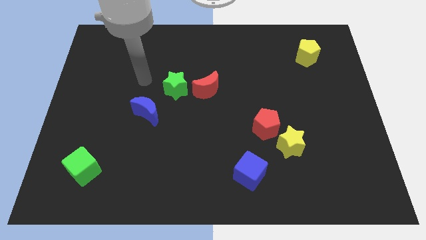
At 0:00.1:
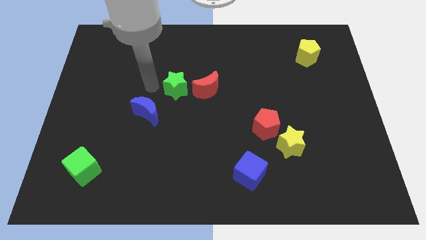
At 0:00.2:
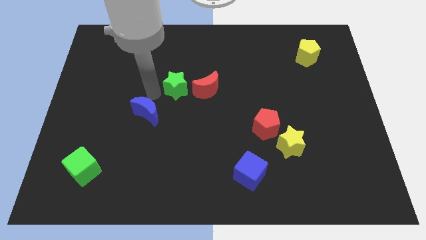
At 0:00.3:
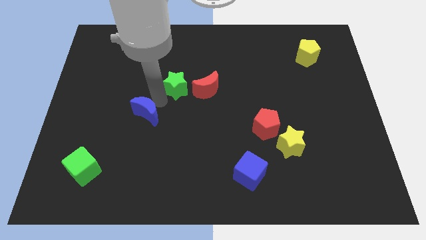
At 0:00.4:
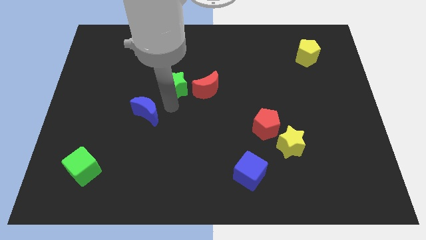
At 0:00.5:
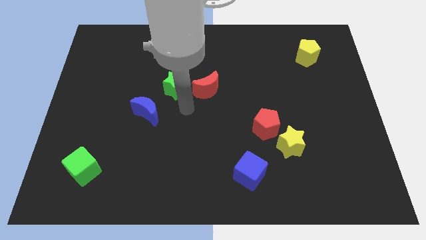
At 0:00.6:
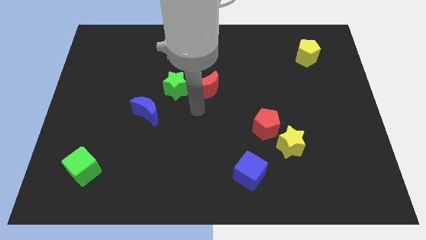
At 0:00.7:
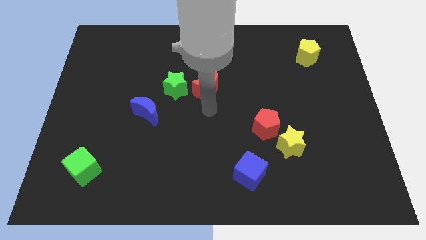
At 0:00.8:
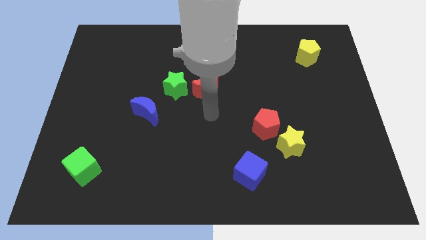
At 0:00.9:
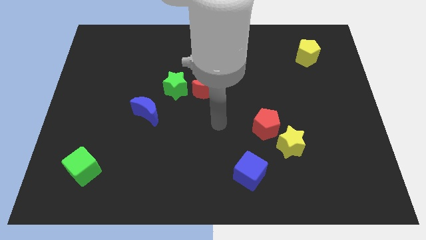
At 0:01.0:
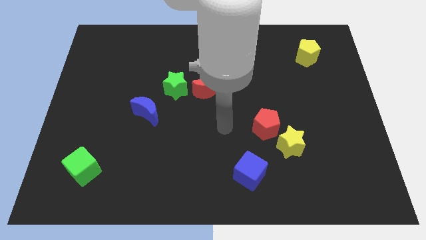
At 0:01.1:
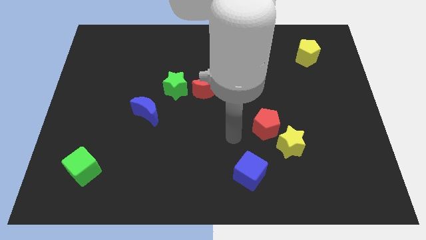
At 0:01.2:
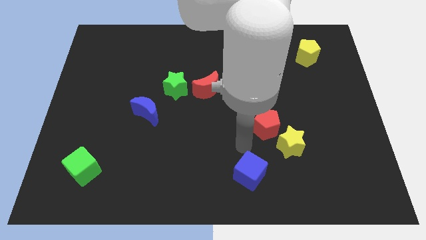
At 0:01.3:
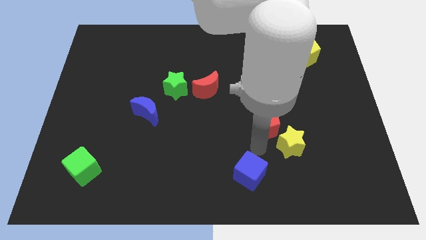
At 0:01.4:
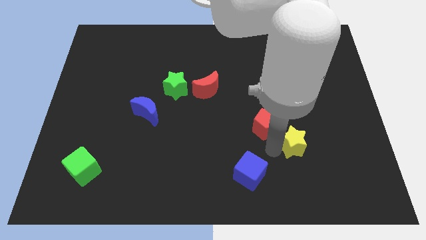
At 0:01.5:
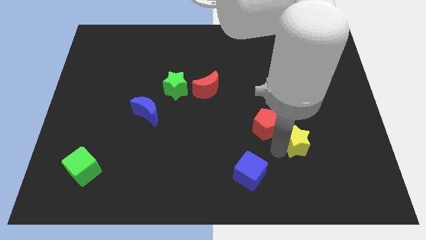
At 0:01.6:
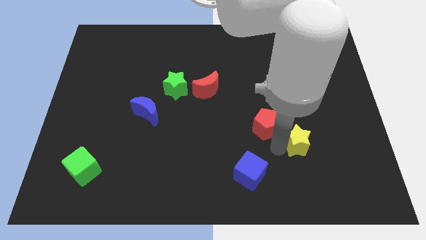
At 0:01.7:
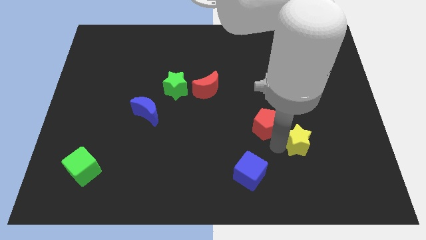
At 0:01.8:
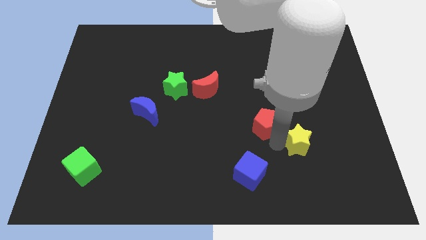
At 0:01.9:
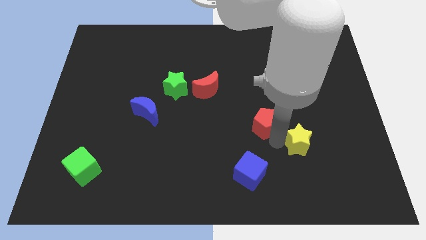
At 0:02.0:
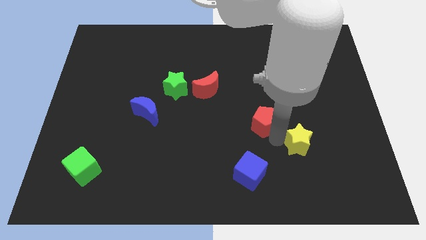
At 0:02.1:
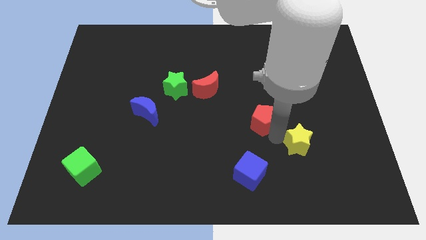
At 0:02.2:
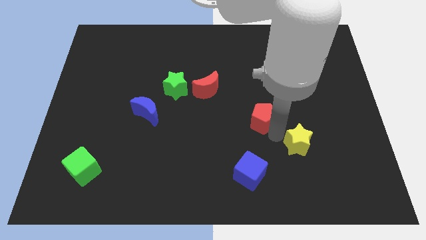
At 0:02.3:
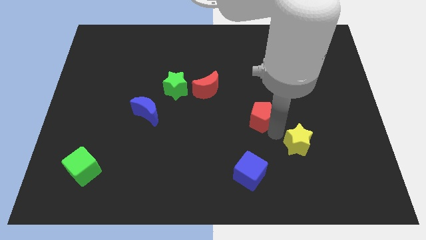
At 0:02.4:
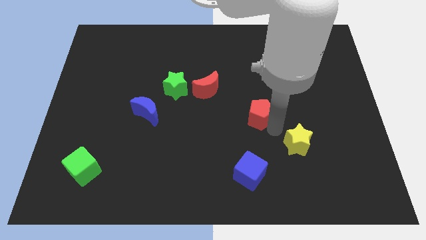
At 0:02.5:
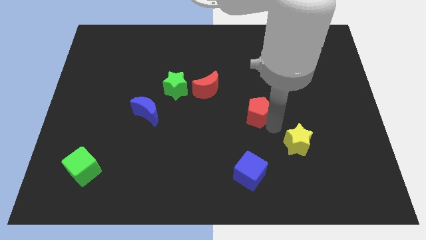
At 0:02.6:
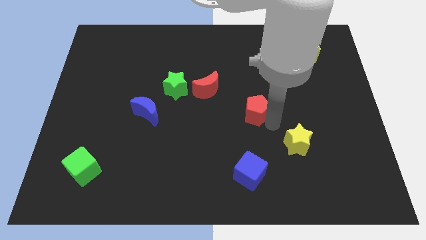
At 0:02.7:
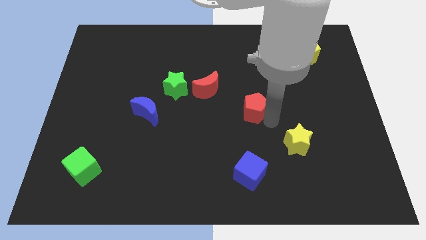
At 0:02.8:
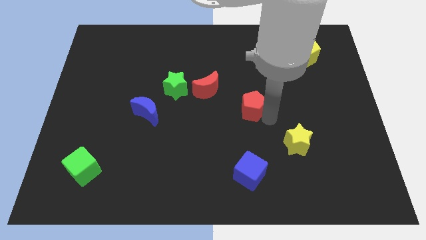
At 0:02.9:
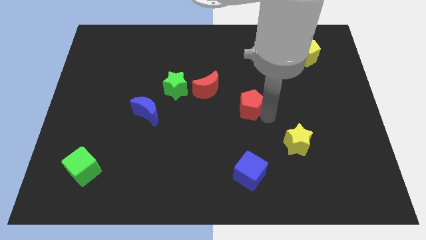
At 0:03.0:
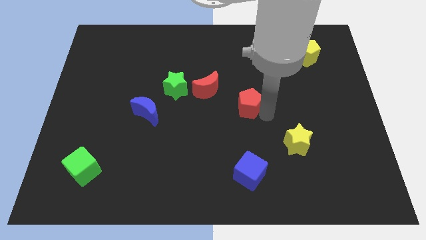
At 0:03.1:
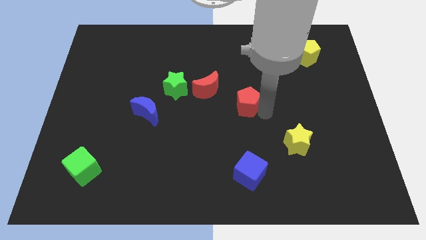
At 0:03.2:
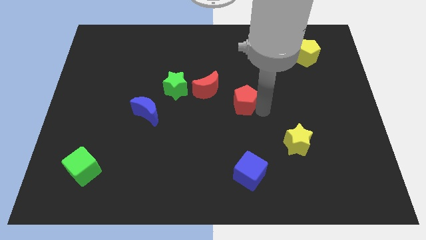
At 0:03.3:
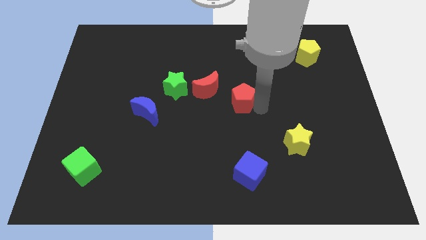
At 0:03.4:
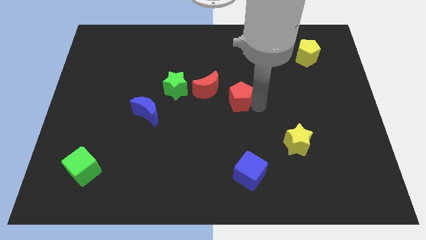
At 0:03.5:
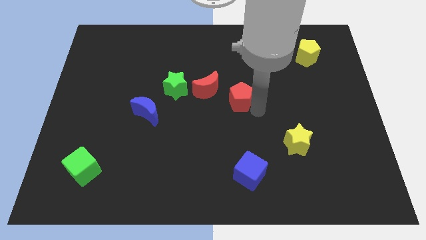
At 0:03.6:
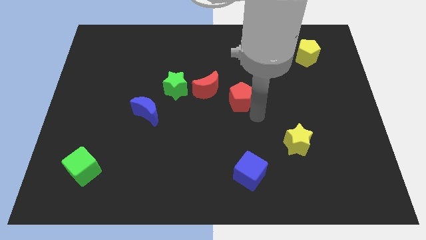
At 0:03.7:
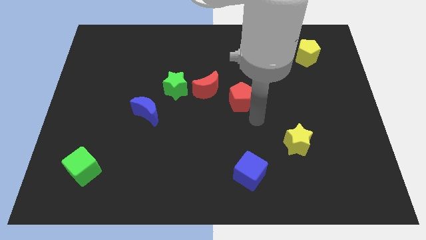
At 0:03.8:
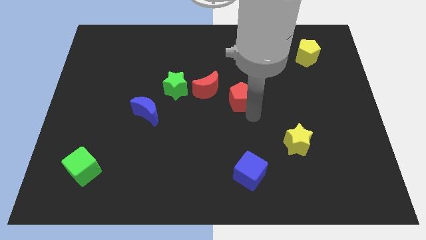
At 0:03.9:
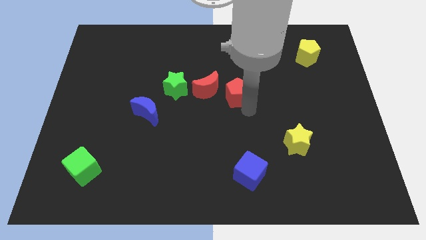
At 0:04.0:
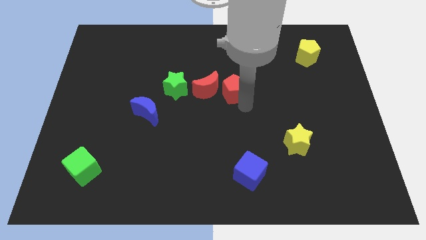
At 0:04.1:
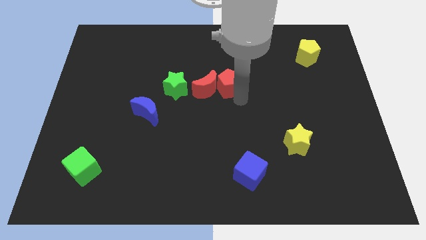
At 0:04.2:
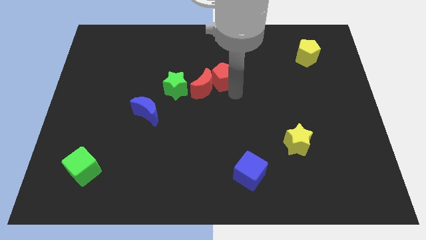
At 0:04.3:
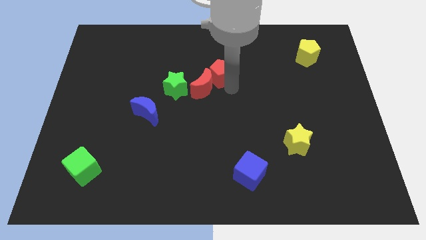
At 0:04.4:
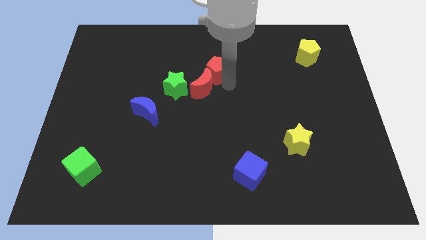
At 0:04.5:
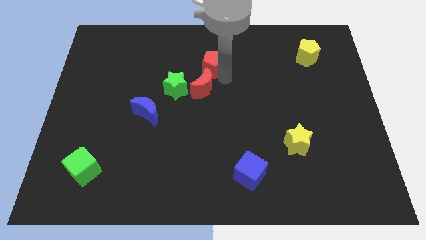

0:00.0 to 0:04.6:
push the red pentagon upwards and to the left

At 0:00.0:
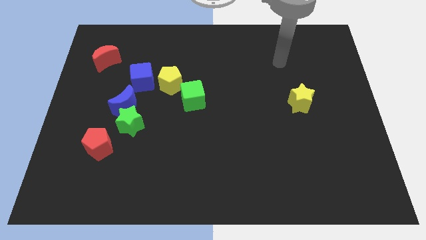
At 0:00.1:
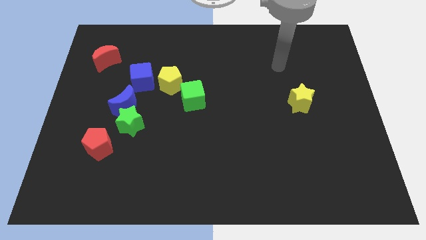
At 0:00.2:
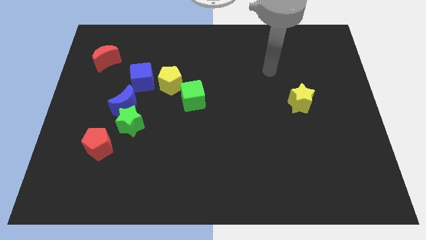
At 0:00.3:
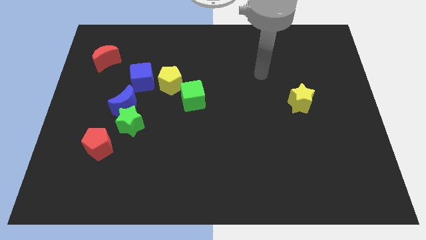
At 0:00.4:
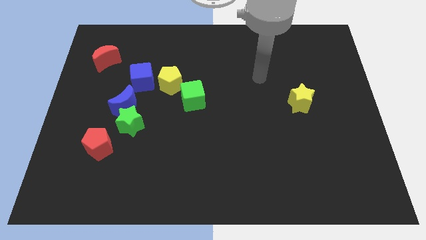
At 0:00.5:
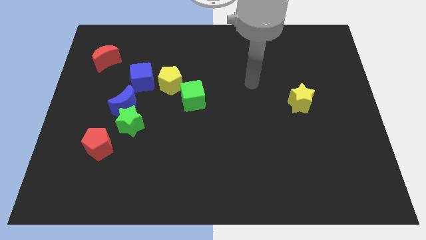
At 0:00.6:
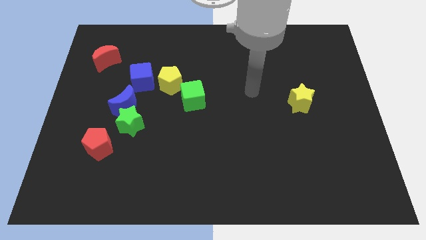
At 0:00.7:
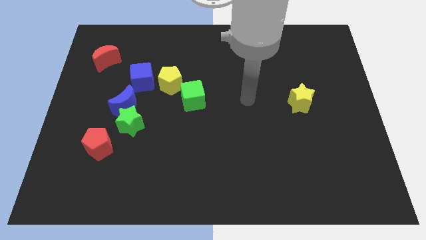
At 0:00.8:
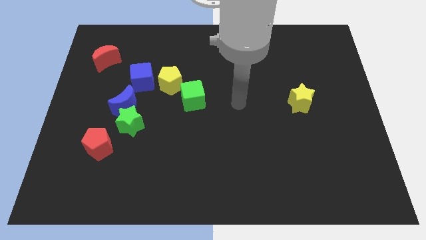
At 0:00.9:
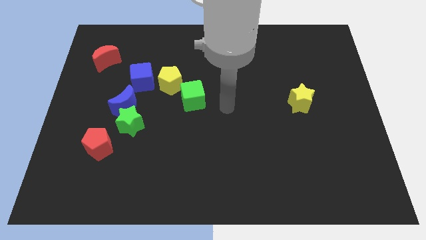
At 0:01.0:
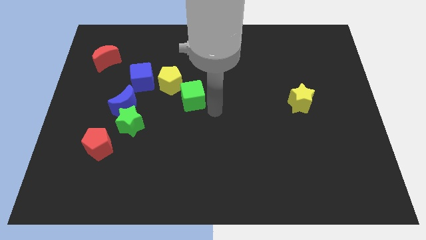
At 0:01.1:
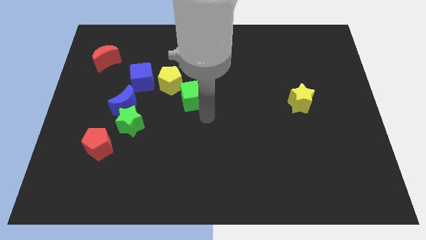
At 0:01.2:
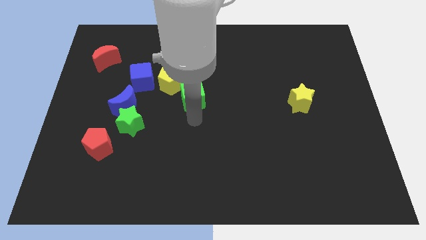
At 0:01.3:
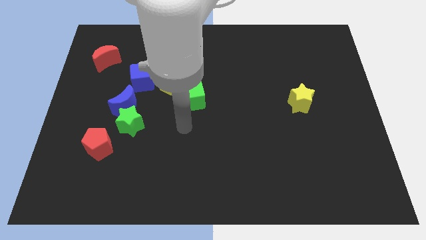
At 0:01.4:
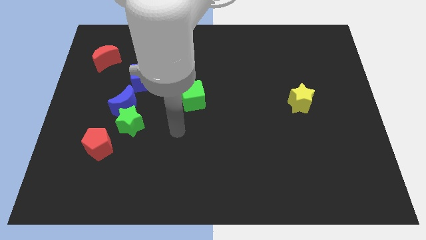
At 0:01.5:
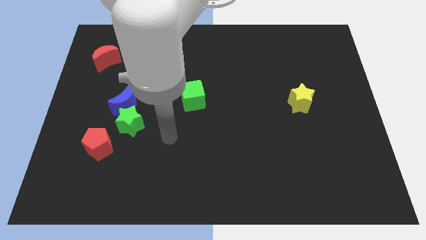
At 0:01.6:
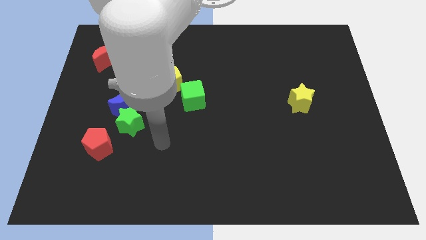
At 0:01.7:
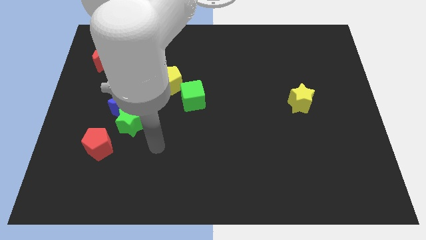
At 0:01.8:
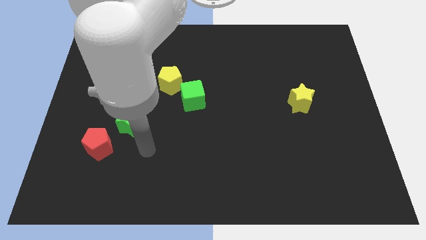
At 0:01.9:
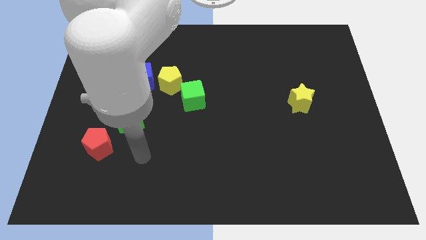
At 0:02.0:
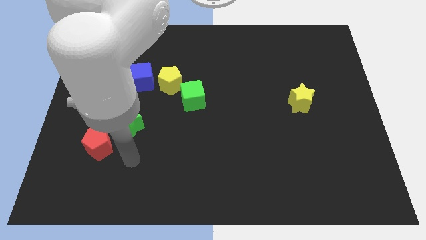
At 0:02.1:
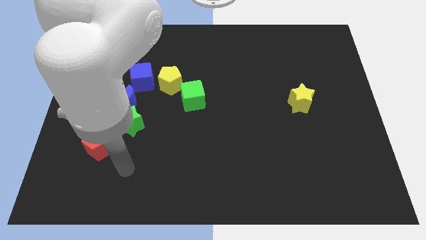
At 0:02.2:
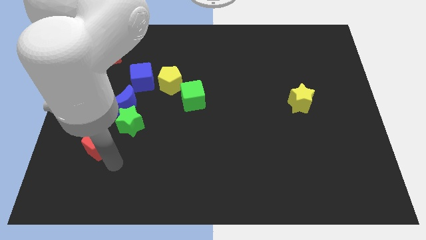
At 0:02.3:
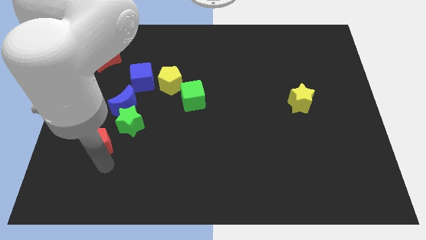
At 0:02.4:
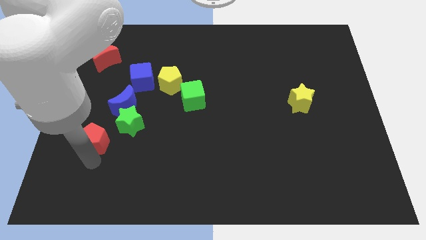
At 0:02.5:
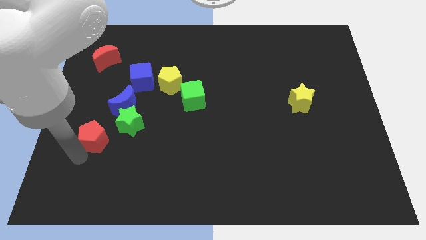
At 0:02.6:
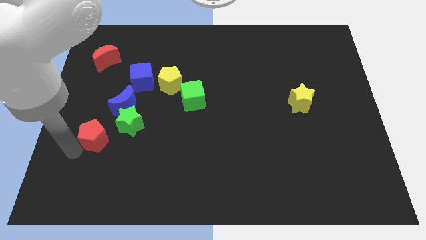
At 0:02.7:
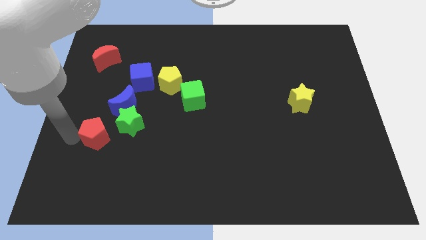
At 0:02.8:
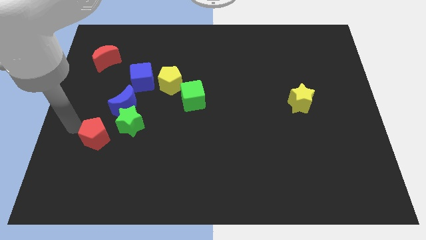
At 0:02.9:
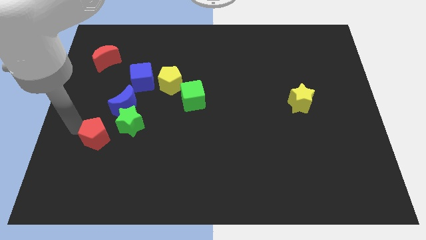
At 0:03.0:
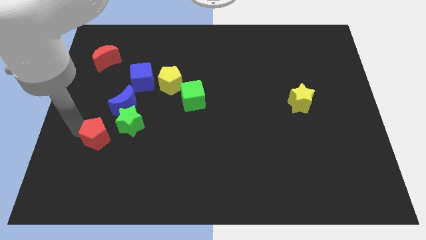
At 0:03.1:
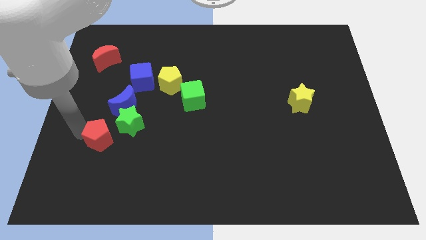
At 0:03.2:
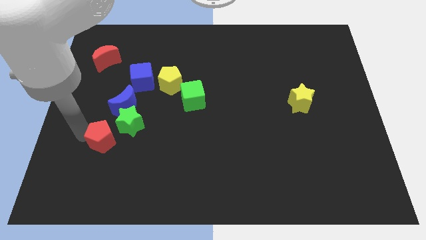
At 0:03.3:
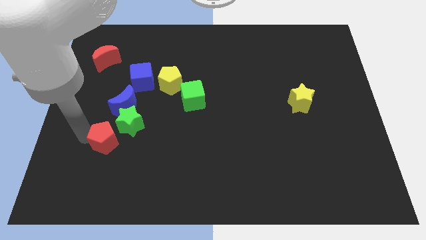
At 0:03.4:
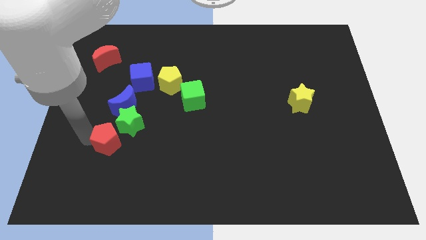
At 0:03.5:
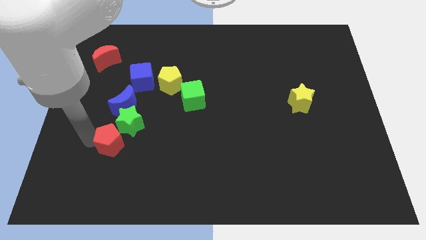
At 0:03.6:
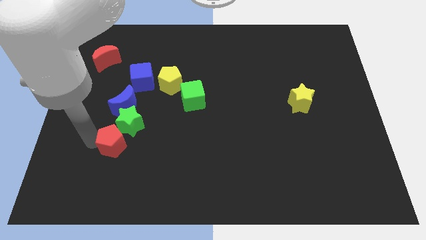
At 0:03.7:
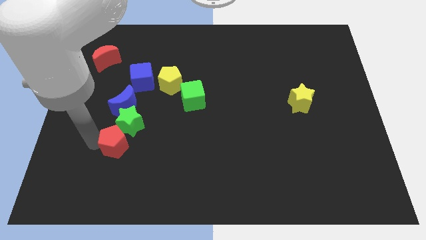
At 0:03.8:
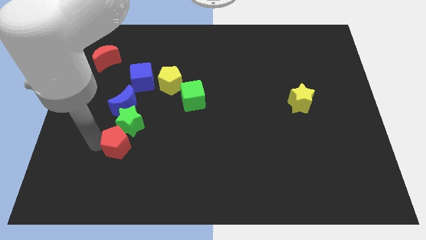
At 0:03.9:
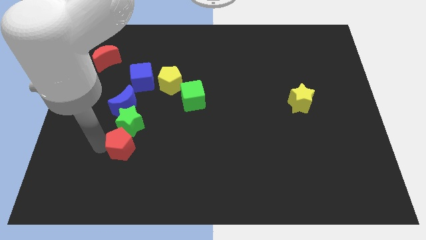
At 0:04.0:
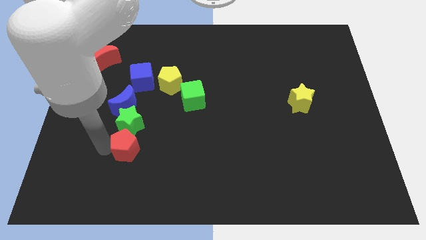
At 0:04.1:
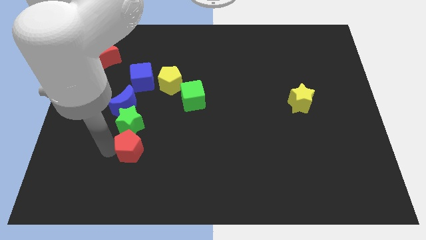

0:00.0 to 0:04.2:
slightly slide the red pentagon right
